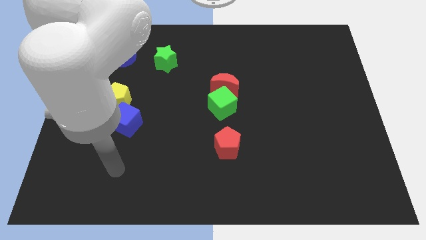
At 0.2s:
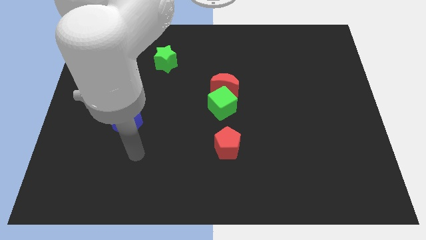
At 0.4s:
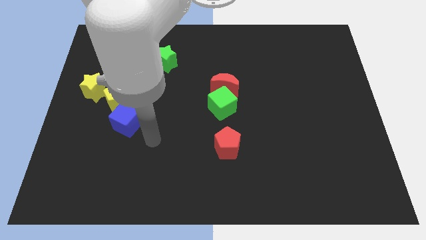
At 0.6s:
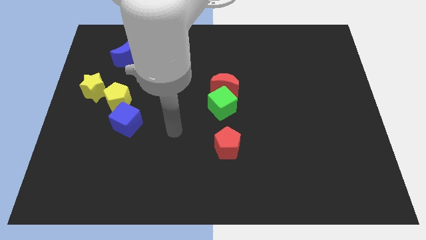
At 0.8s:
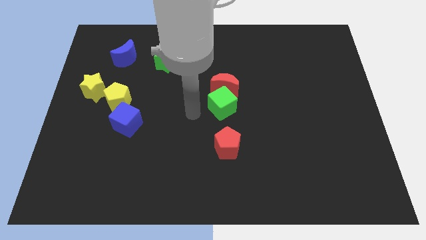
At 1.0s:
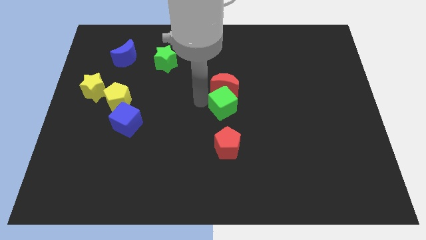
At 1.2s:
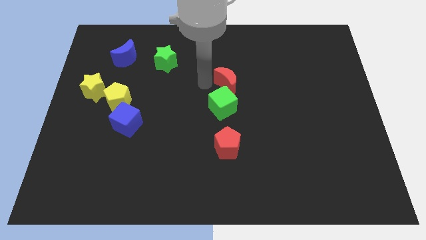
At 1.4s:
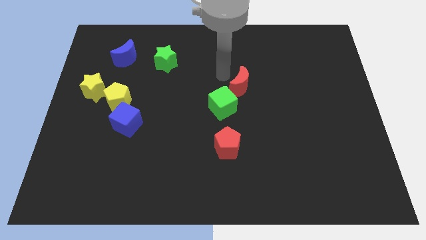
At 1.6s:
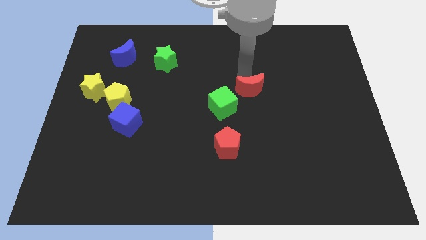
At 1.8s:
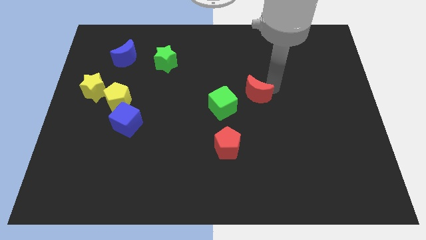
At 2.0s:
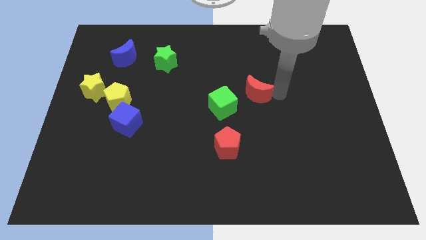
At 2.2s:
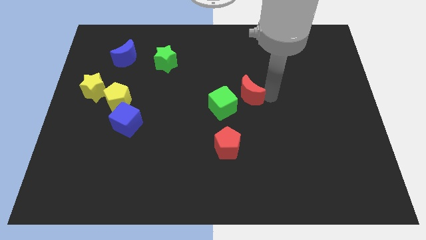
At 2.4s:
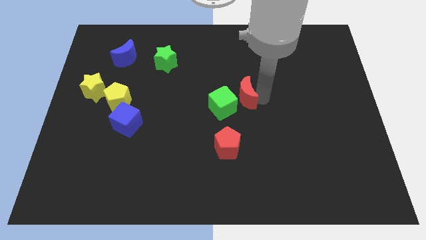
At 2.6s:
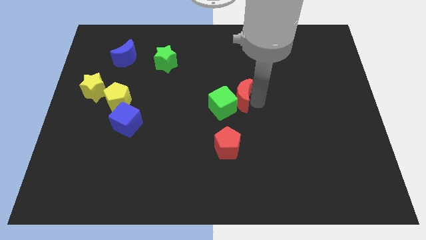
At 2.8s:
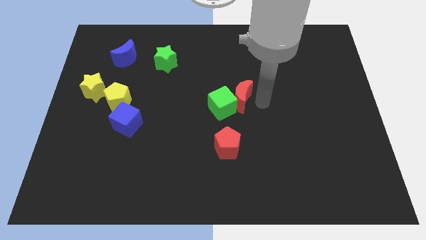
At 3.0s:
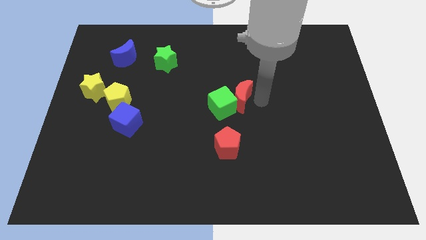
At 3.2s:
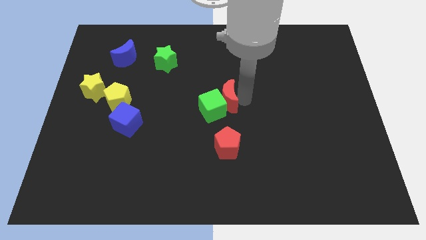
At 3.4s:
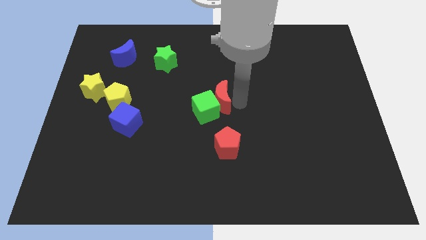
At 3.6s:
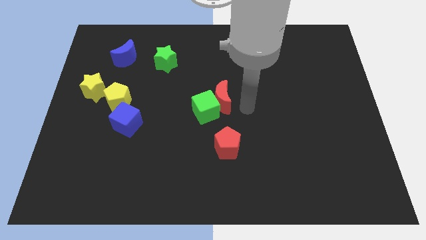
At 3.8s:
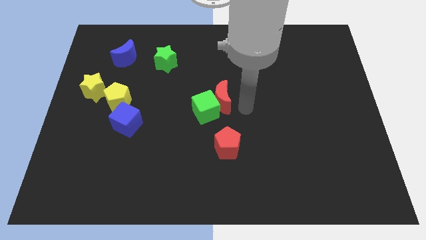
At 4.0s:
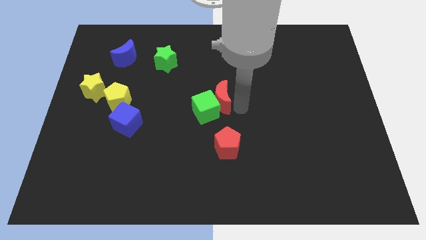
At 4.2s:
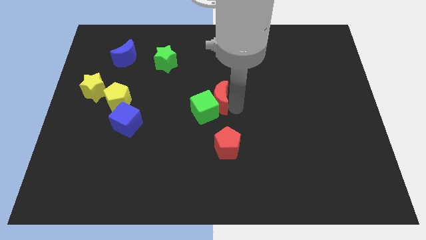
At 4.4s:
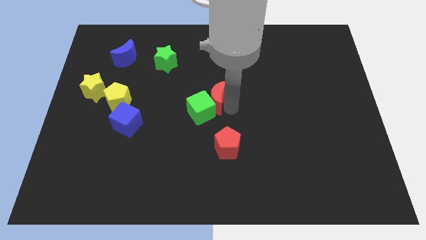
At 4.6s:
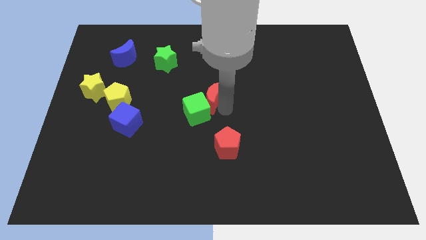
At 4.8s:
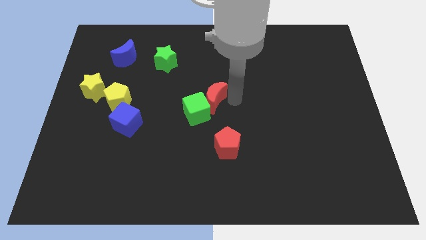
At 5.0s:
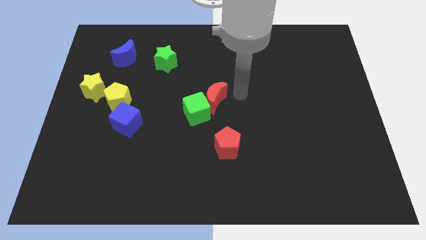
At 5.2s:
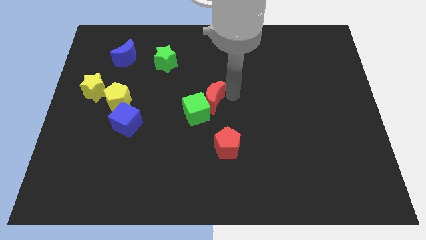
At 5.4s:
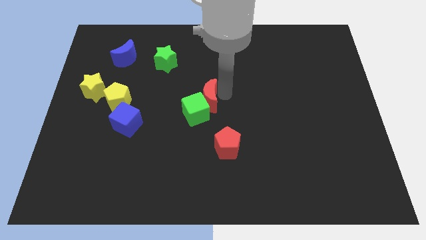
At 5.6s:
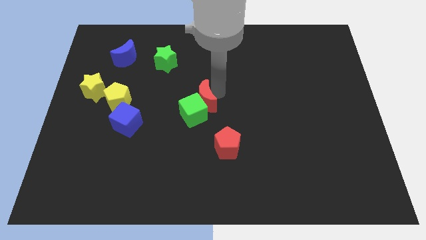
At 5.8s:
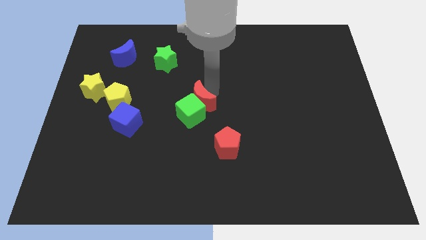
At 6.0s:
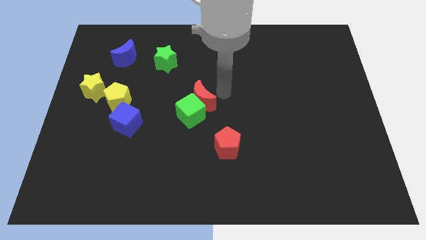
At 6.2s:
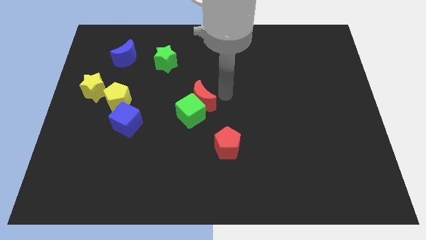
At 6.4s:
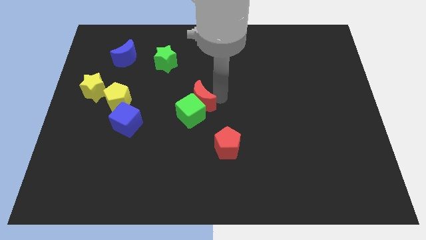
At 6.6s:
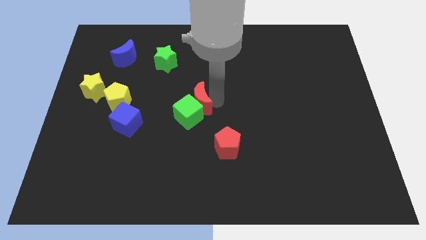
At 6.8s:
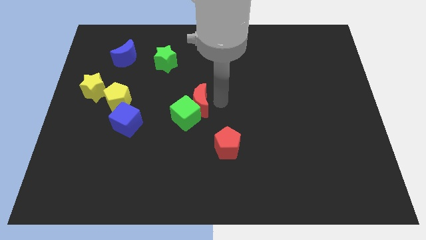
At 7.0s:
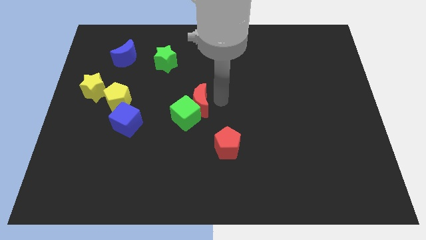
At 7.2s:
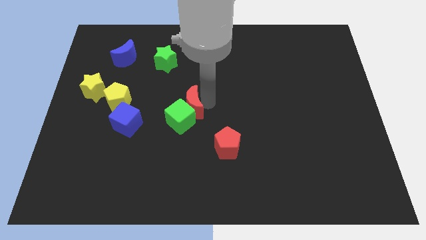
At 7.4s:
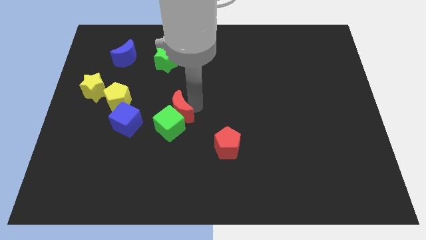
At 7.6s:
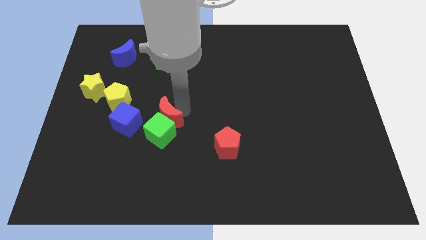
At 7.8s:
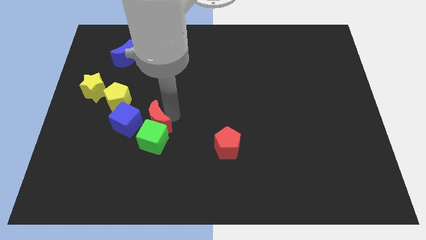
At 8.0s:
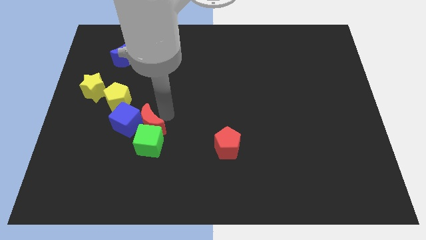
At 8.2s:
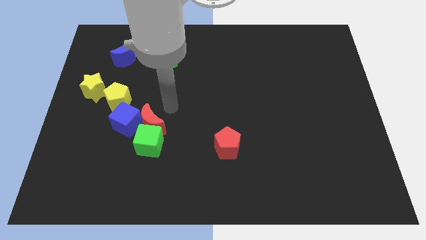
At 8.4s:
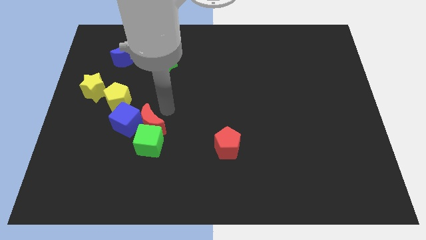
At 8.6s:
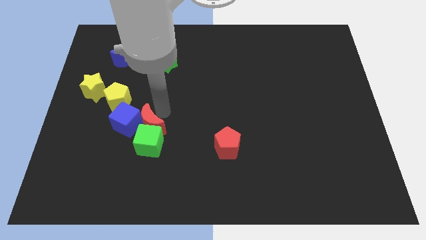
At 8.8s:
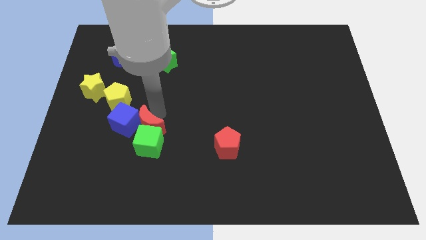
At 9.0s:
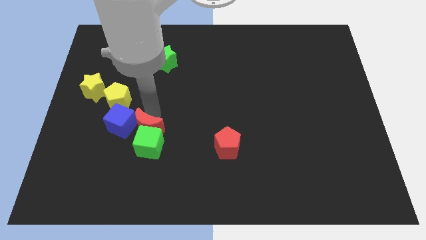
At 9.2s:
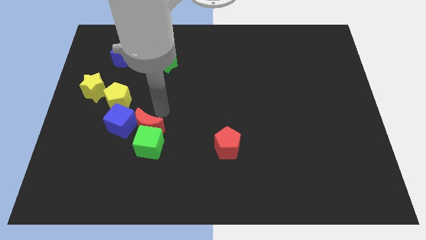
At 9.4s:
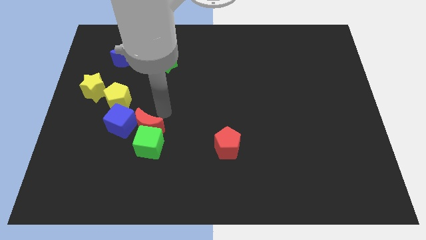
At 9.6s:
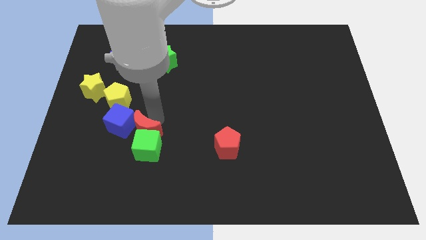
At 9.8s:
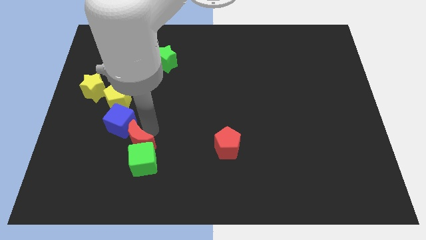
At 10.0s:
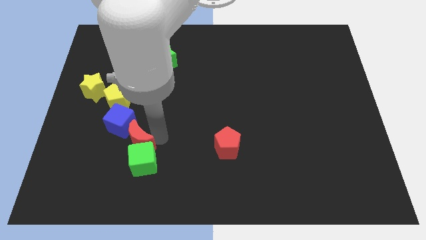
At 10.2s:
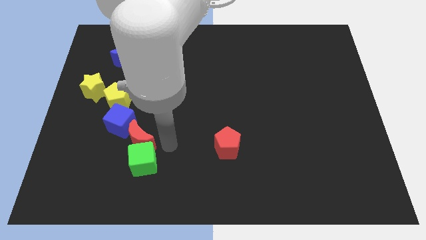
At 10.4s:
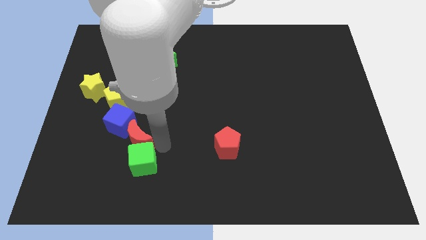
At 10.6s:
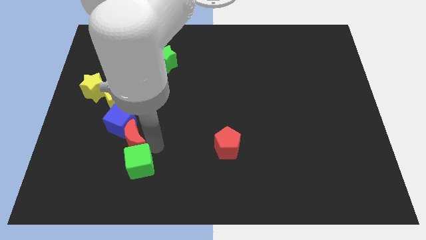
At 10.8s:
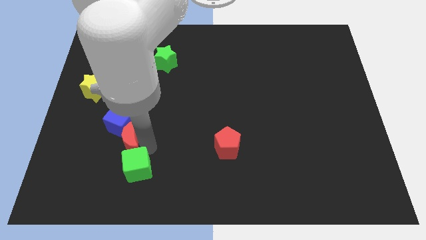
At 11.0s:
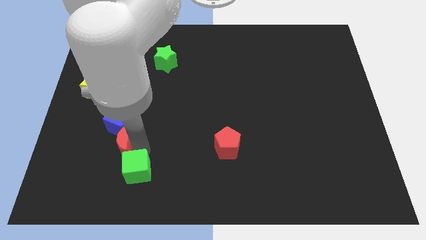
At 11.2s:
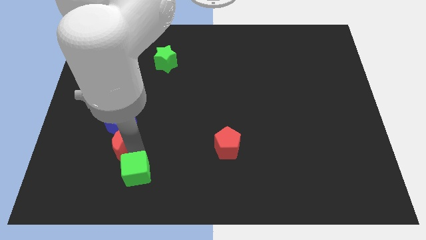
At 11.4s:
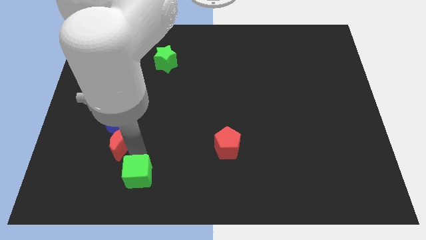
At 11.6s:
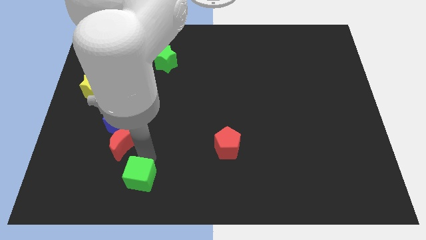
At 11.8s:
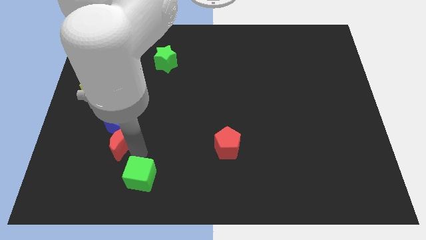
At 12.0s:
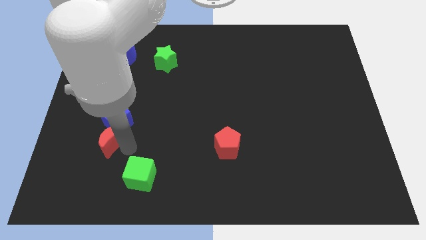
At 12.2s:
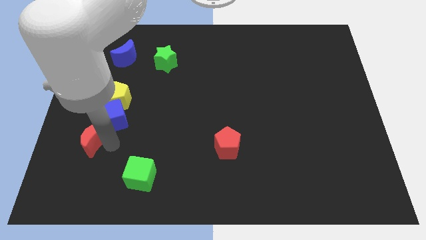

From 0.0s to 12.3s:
slide the red moon to the bottom side of the yellow star
